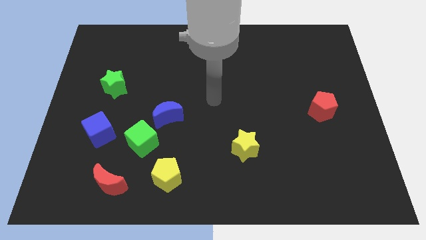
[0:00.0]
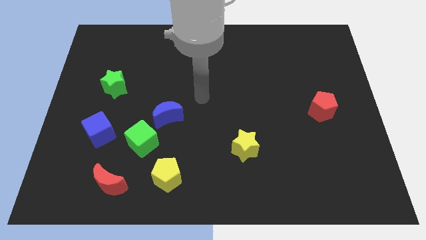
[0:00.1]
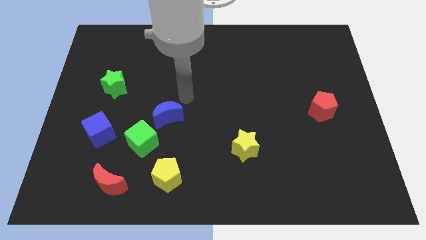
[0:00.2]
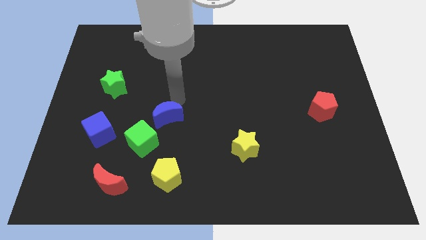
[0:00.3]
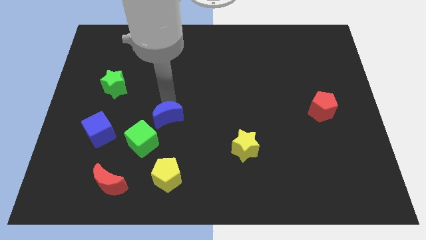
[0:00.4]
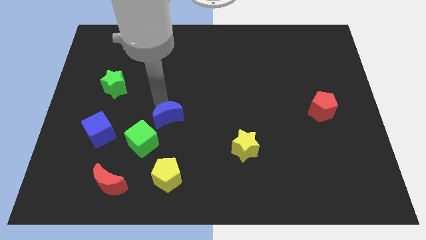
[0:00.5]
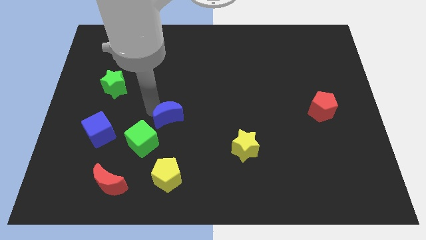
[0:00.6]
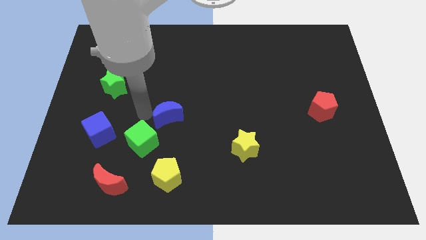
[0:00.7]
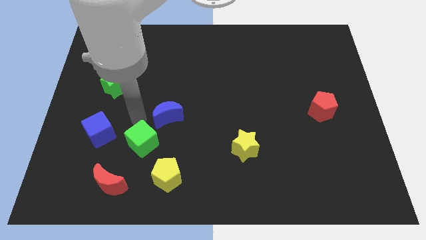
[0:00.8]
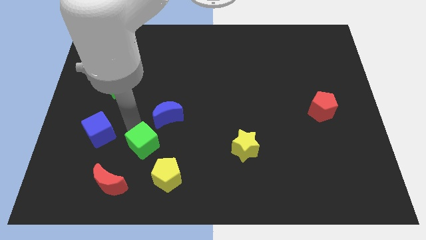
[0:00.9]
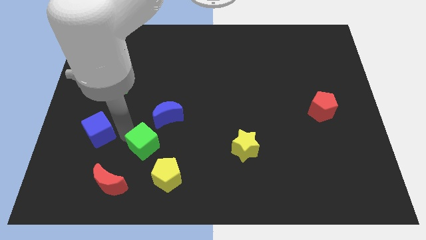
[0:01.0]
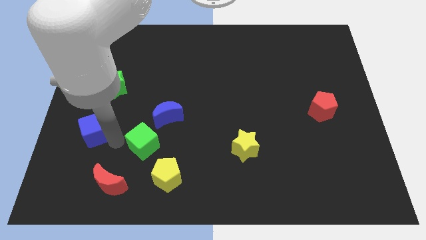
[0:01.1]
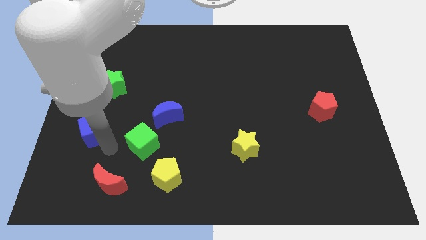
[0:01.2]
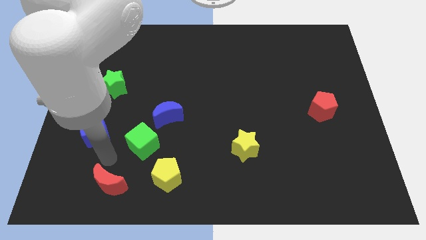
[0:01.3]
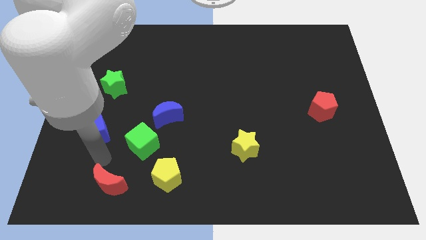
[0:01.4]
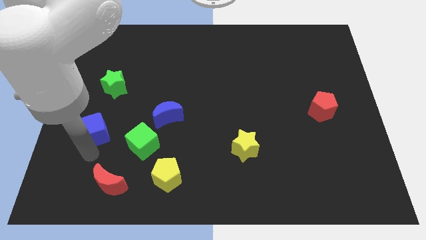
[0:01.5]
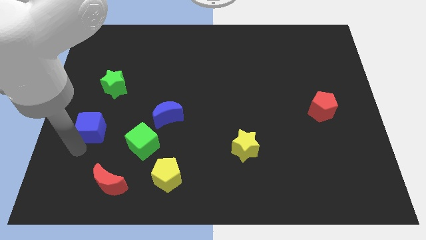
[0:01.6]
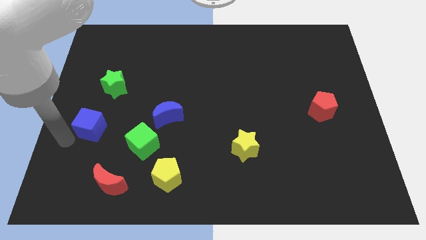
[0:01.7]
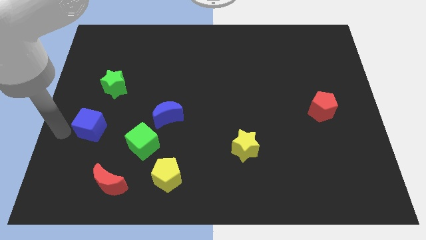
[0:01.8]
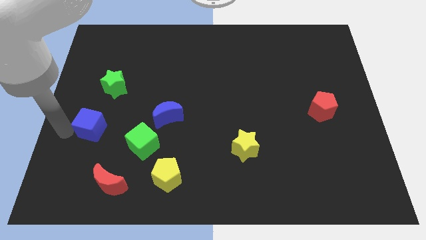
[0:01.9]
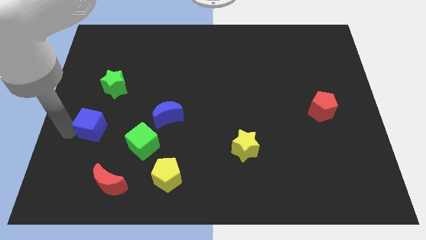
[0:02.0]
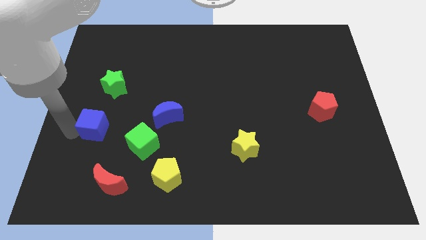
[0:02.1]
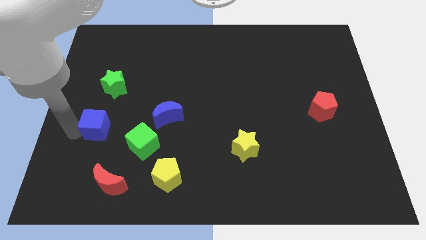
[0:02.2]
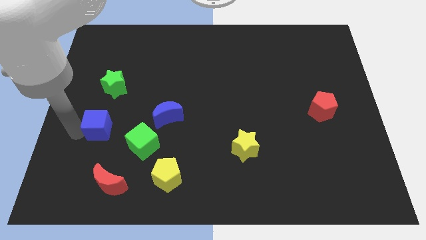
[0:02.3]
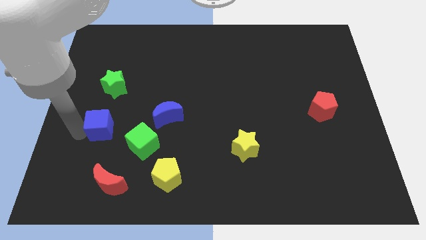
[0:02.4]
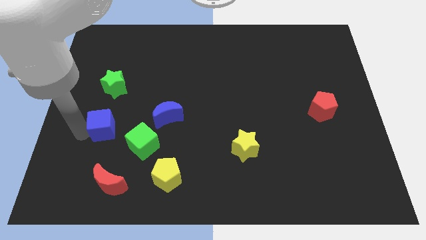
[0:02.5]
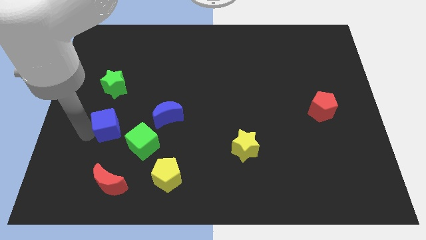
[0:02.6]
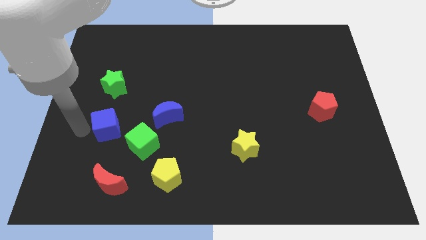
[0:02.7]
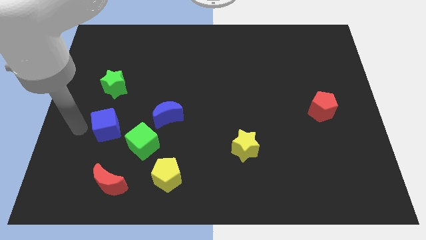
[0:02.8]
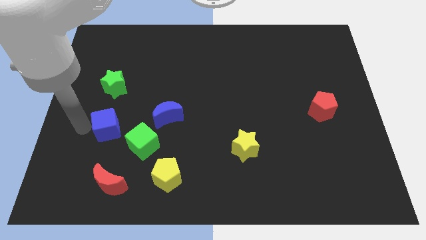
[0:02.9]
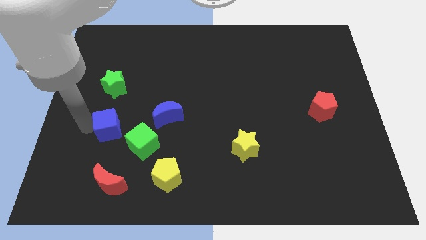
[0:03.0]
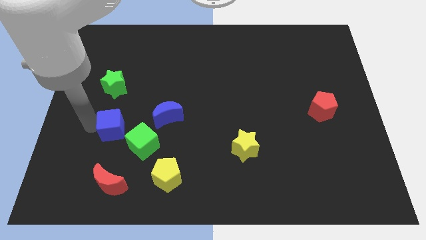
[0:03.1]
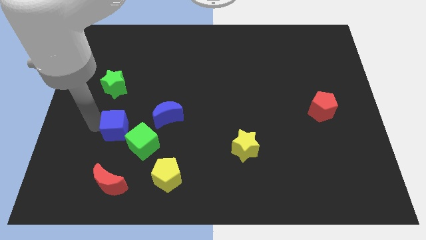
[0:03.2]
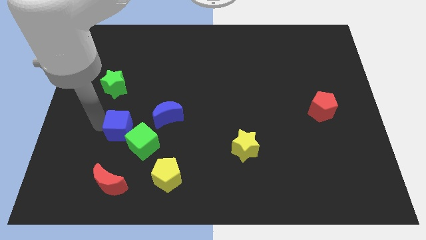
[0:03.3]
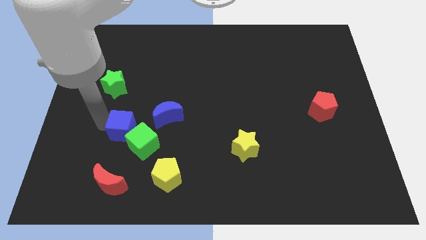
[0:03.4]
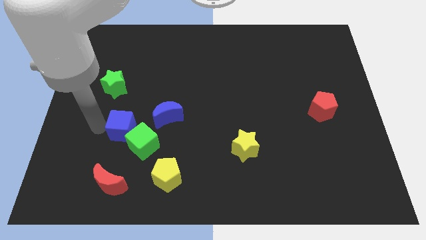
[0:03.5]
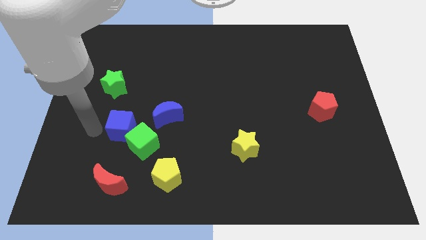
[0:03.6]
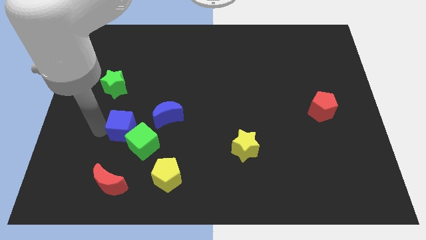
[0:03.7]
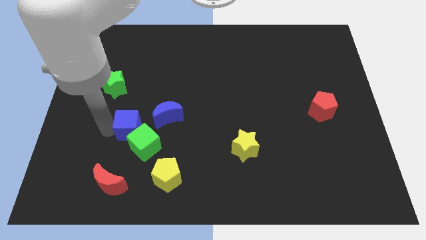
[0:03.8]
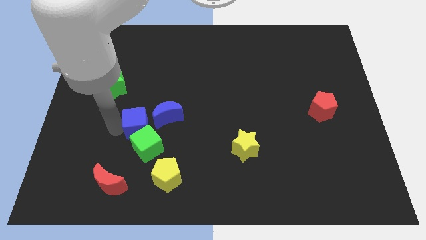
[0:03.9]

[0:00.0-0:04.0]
move the blue cube a bit to the right

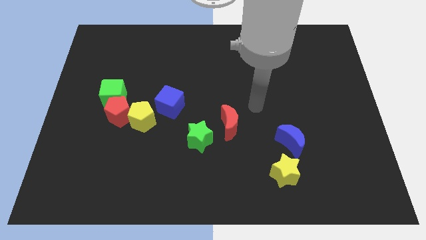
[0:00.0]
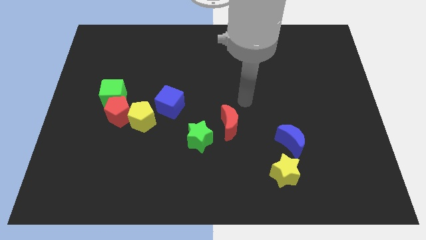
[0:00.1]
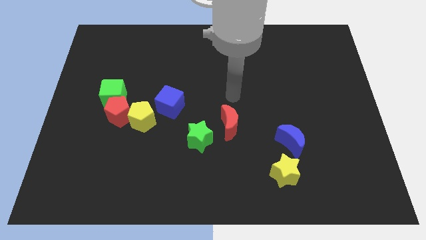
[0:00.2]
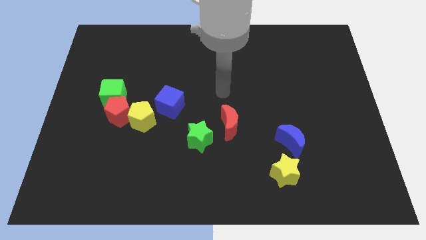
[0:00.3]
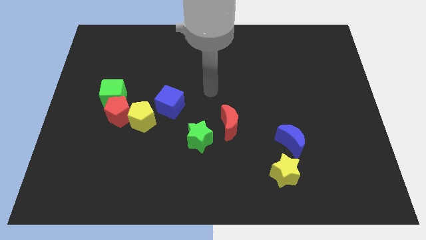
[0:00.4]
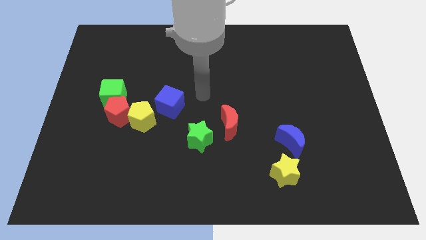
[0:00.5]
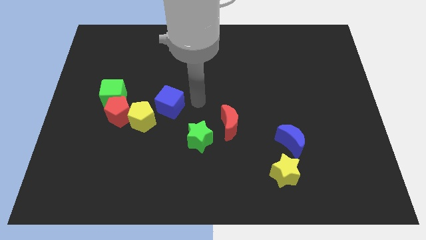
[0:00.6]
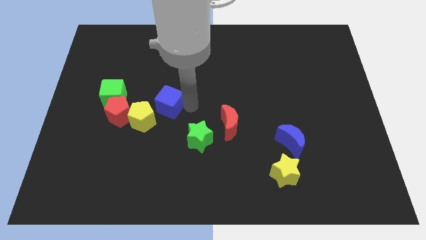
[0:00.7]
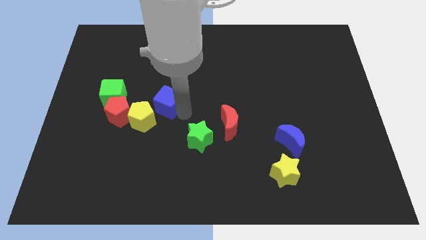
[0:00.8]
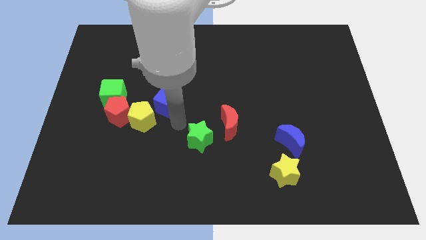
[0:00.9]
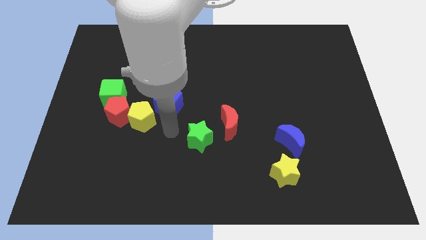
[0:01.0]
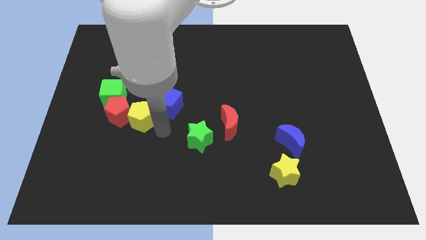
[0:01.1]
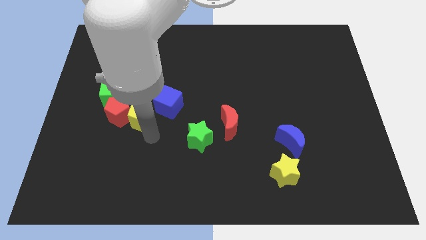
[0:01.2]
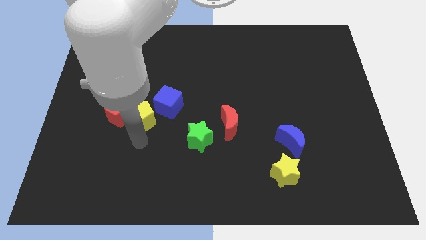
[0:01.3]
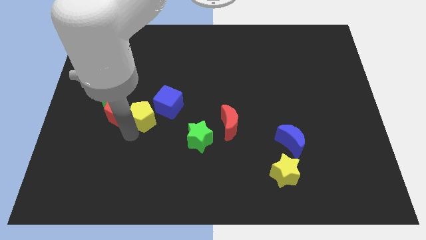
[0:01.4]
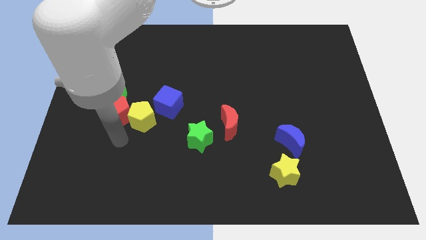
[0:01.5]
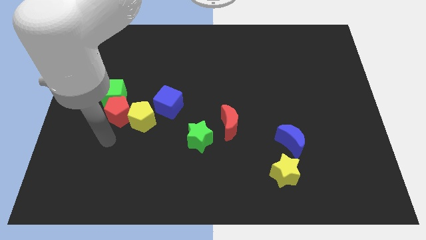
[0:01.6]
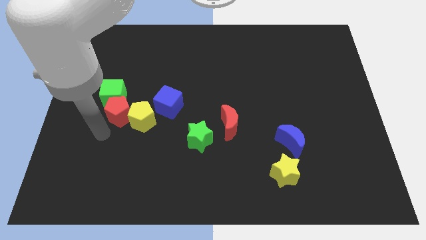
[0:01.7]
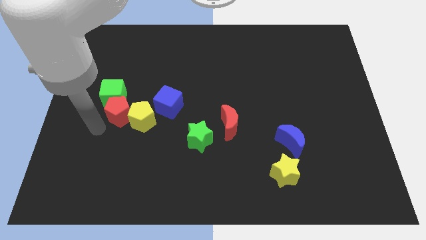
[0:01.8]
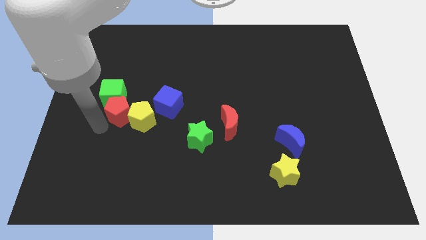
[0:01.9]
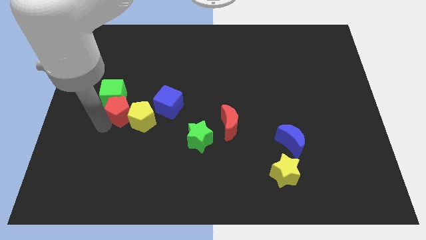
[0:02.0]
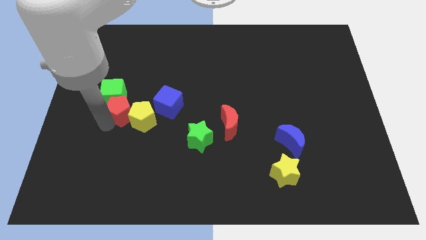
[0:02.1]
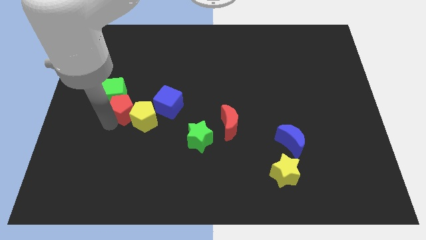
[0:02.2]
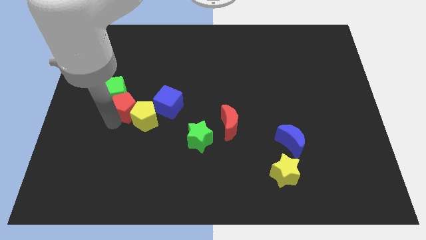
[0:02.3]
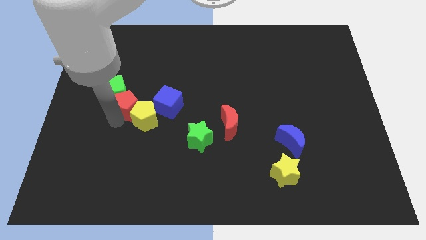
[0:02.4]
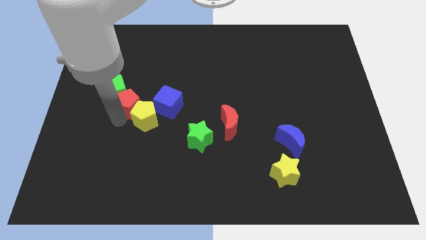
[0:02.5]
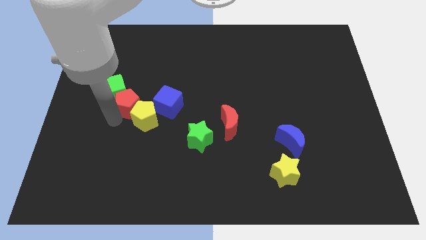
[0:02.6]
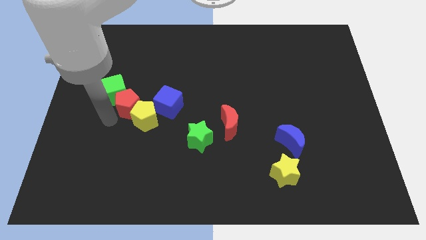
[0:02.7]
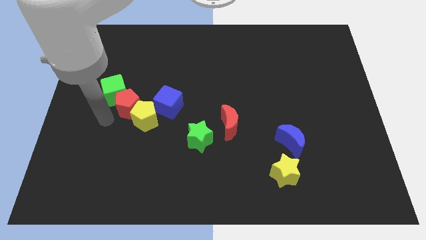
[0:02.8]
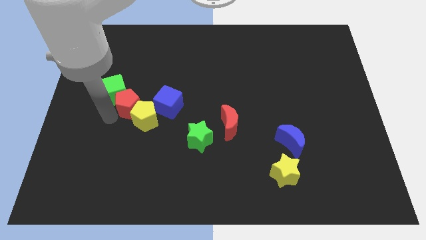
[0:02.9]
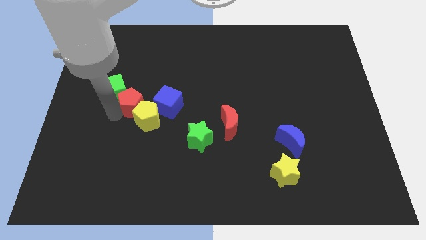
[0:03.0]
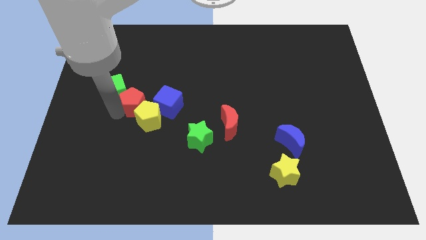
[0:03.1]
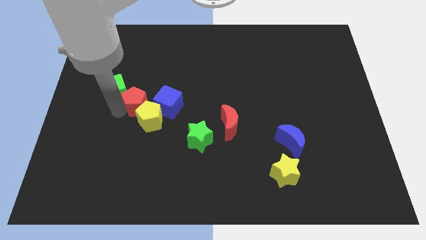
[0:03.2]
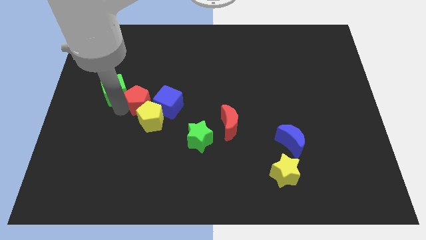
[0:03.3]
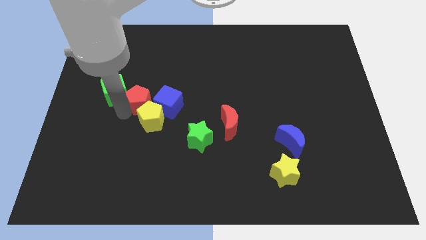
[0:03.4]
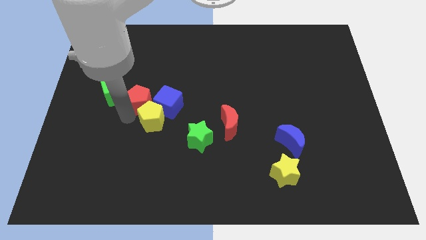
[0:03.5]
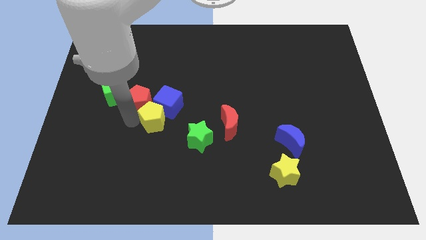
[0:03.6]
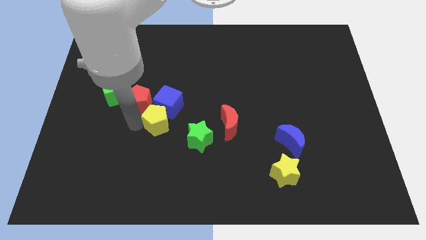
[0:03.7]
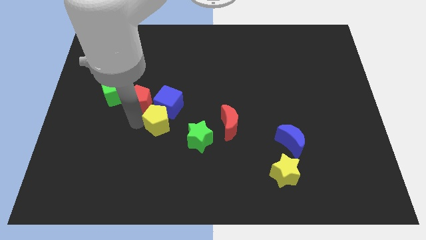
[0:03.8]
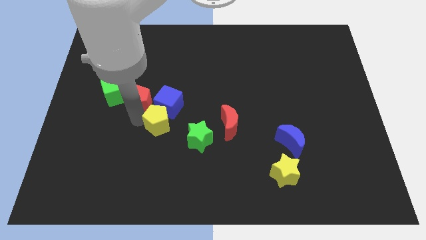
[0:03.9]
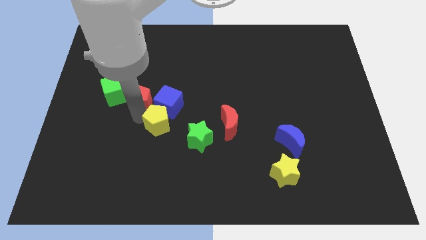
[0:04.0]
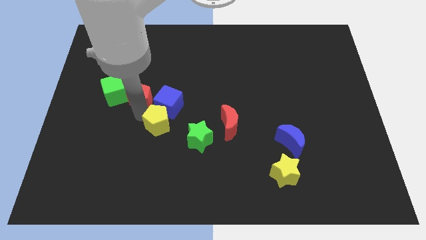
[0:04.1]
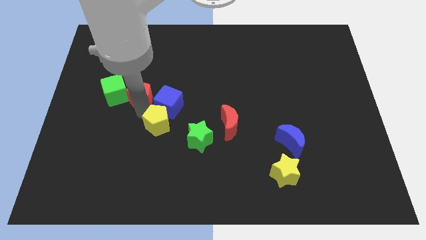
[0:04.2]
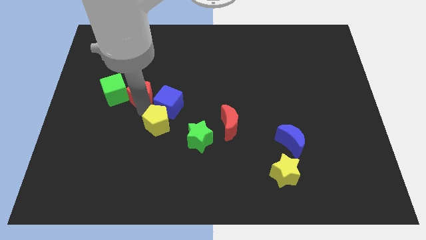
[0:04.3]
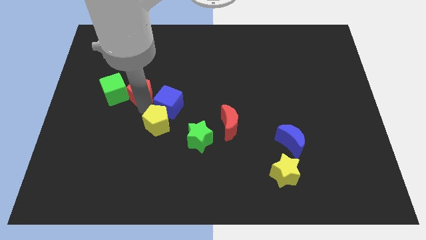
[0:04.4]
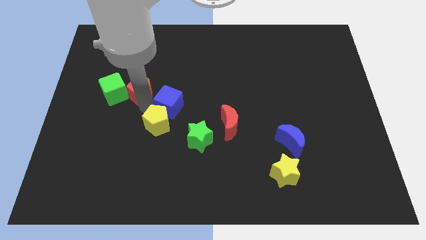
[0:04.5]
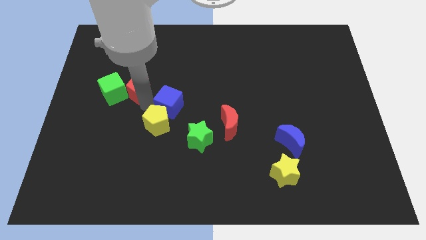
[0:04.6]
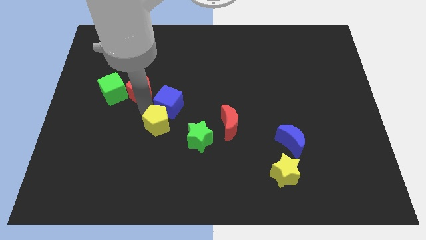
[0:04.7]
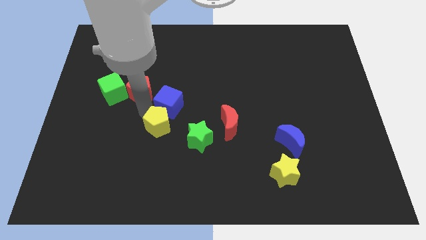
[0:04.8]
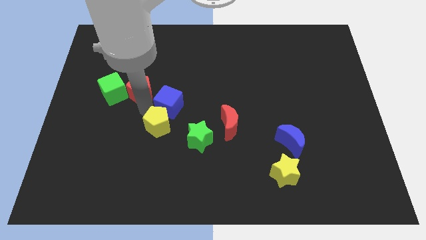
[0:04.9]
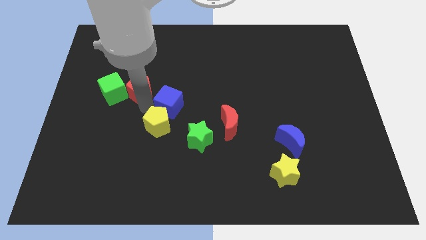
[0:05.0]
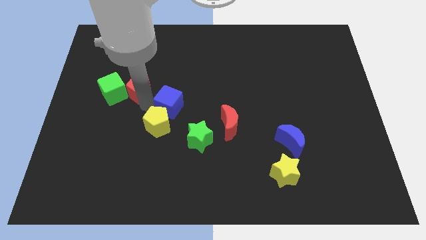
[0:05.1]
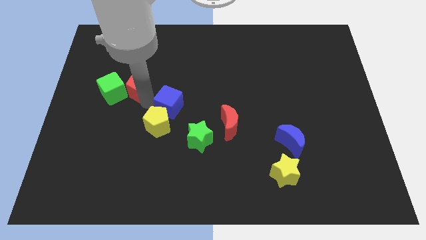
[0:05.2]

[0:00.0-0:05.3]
slightly move the red pentagon up
